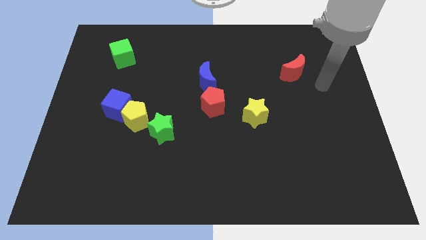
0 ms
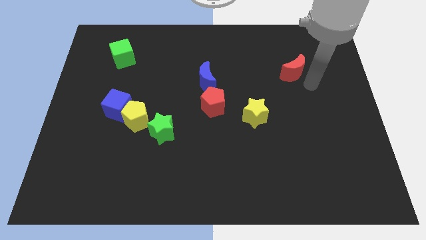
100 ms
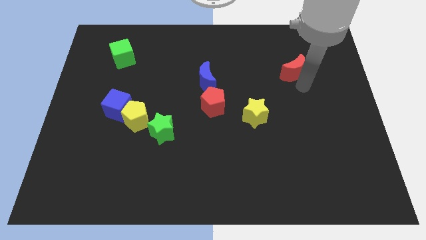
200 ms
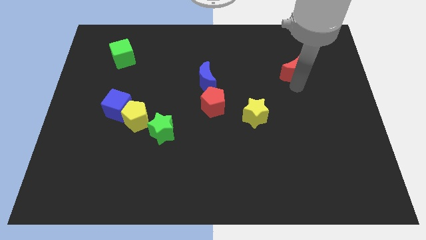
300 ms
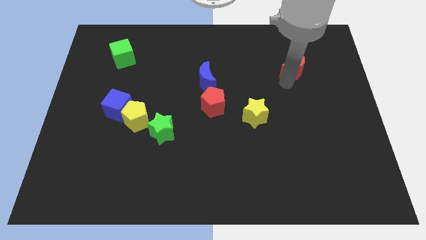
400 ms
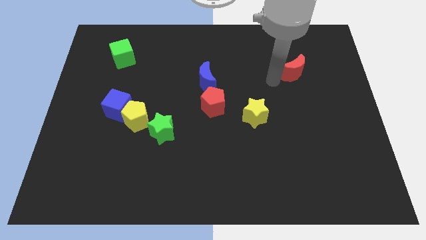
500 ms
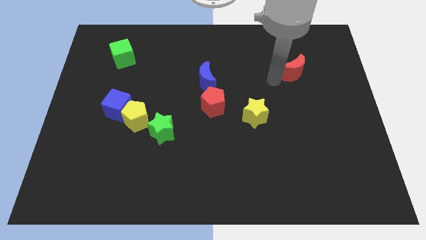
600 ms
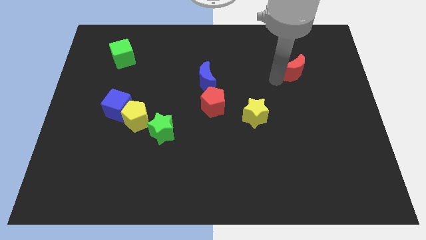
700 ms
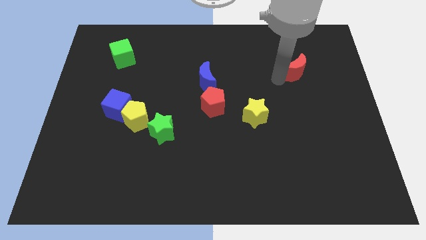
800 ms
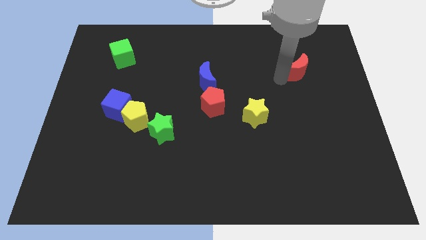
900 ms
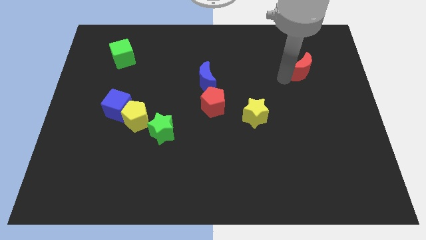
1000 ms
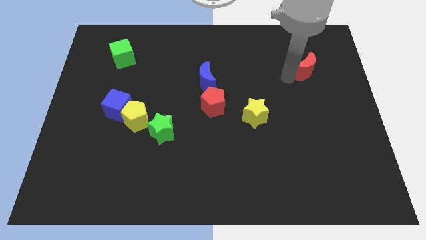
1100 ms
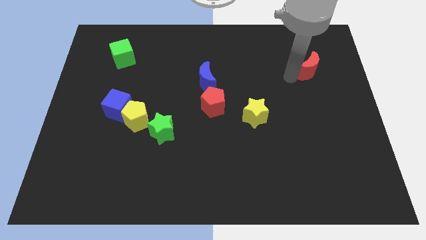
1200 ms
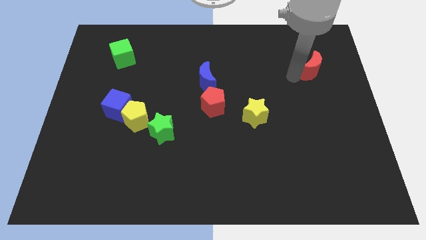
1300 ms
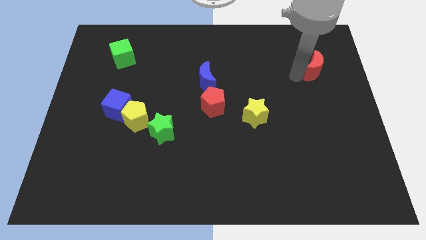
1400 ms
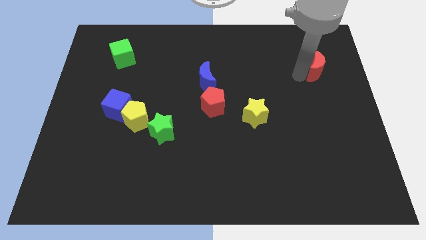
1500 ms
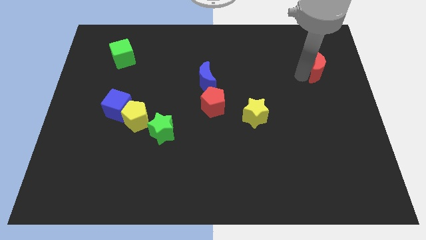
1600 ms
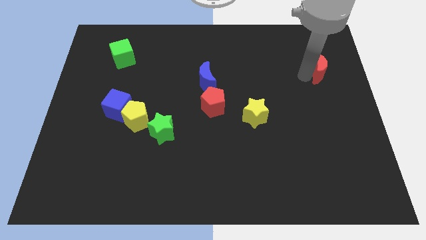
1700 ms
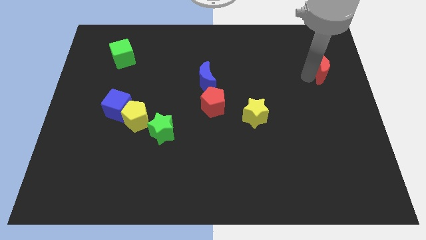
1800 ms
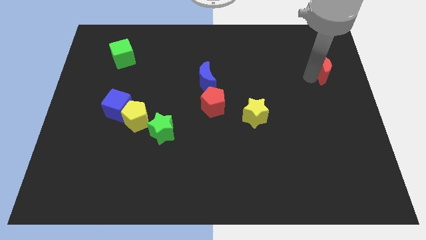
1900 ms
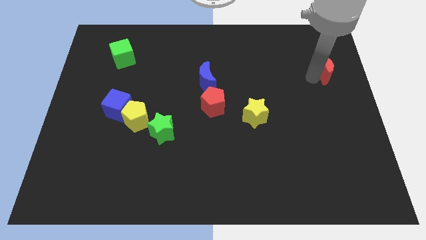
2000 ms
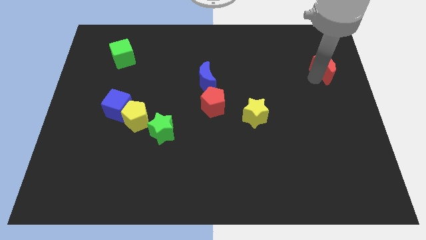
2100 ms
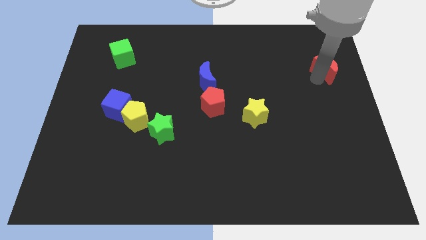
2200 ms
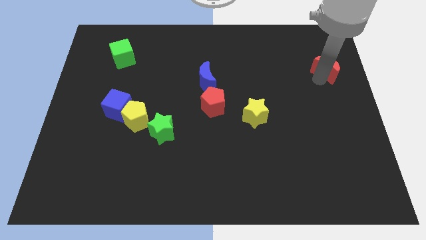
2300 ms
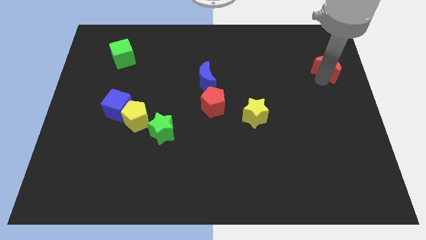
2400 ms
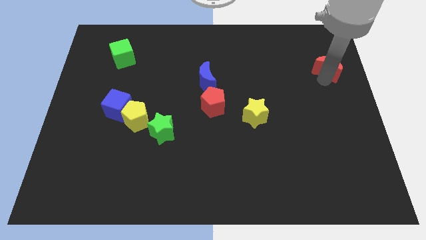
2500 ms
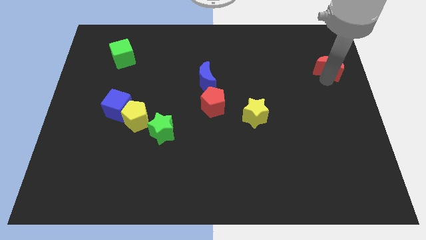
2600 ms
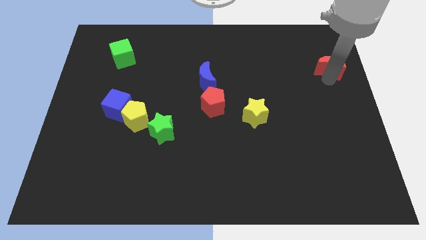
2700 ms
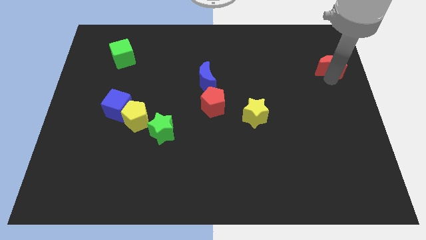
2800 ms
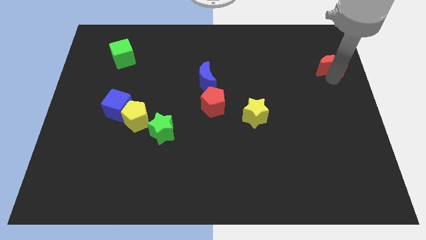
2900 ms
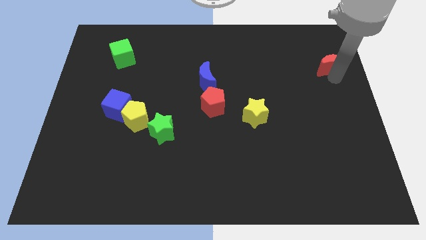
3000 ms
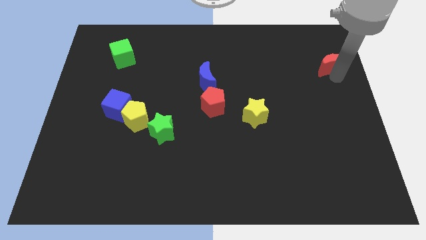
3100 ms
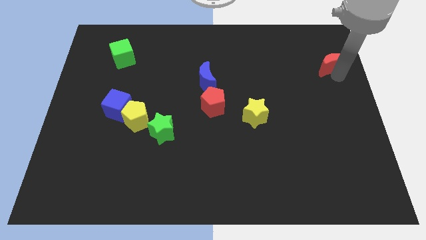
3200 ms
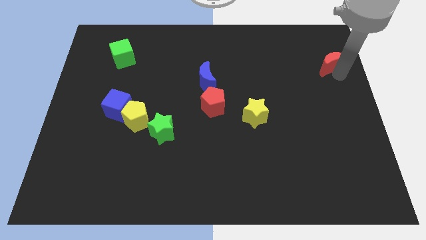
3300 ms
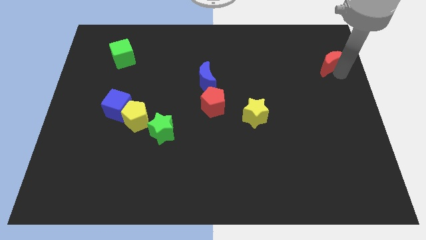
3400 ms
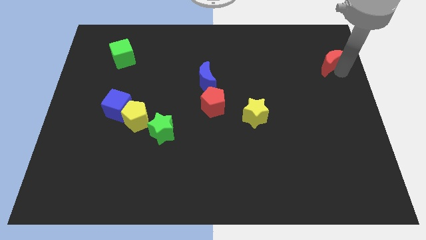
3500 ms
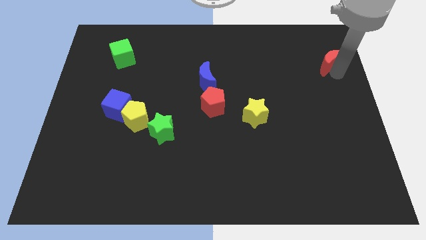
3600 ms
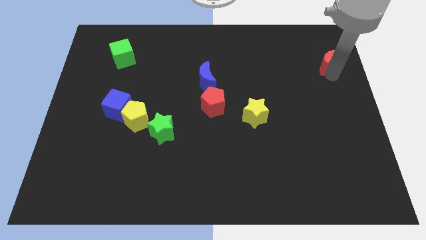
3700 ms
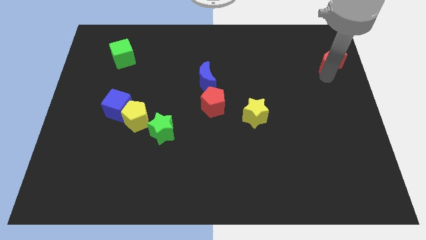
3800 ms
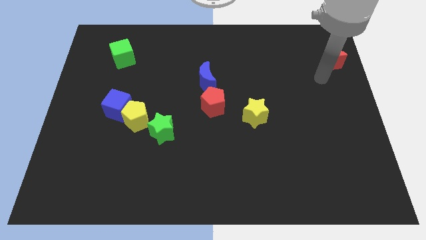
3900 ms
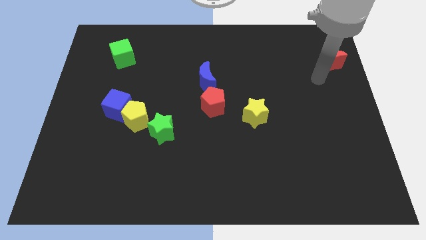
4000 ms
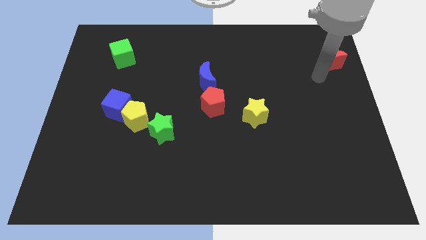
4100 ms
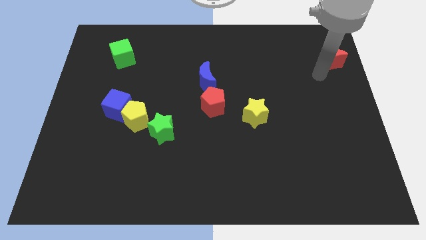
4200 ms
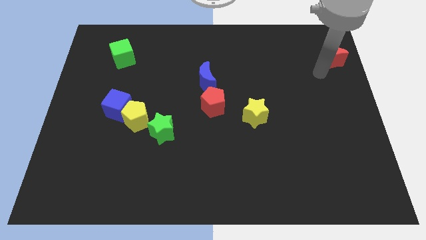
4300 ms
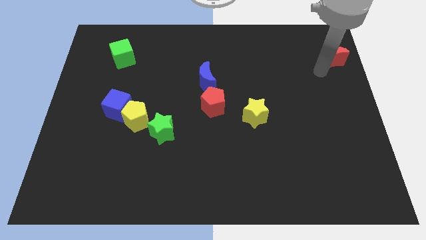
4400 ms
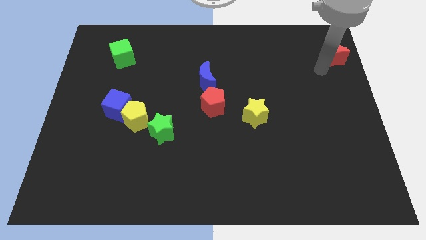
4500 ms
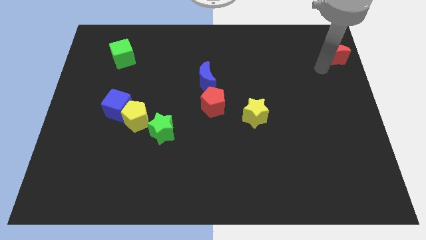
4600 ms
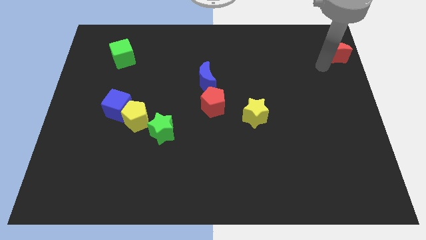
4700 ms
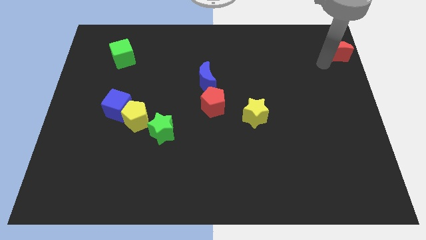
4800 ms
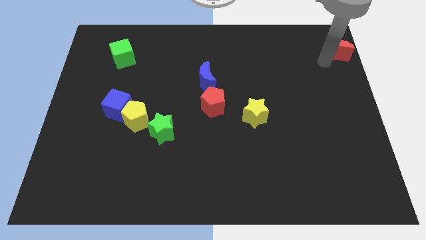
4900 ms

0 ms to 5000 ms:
push the red moon to the top right corner

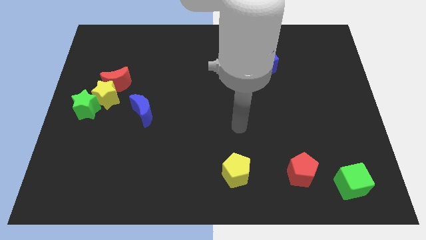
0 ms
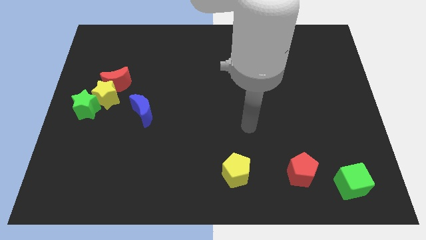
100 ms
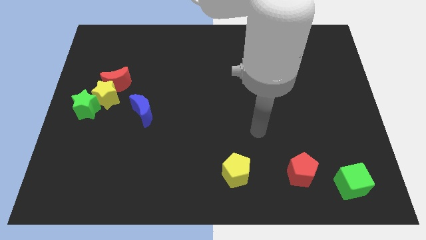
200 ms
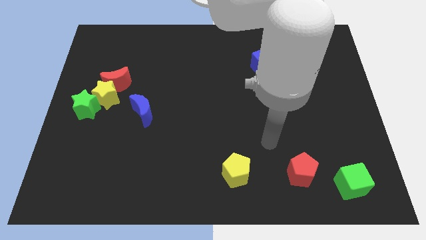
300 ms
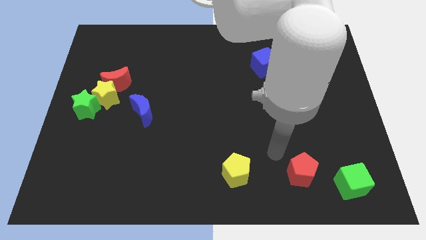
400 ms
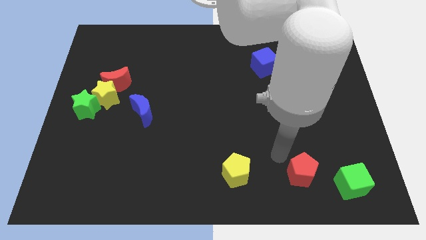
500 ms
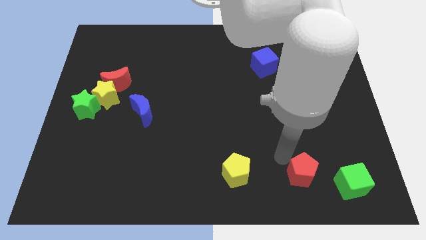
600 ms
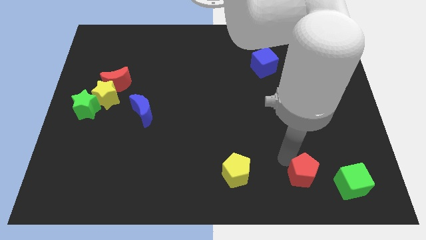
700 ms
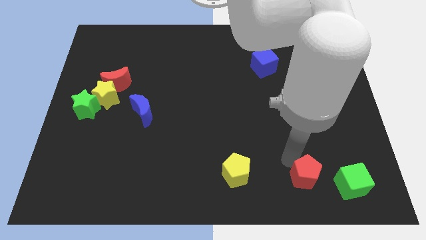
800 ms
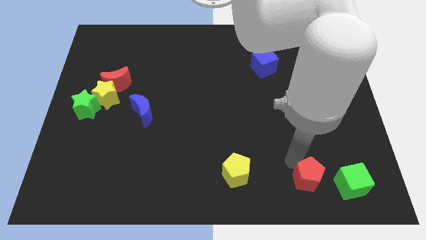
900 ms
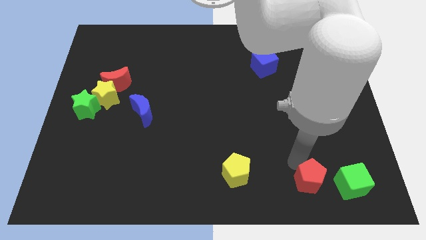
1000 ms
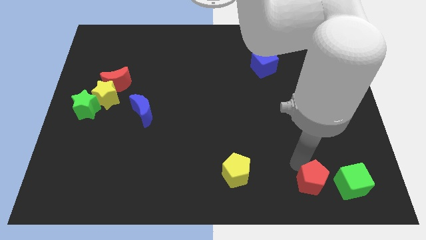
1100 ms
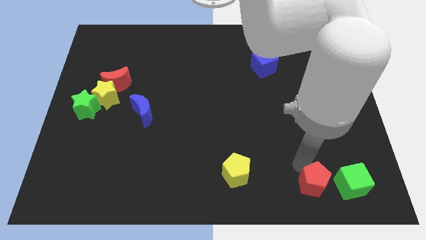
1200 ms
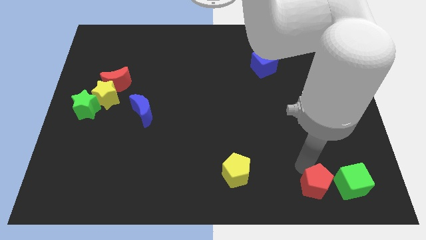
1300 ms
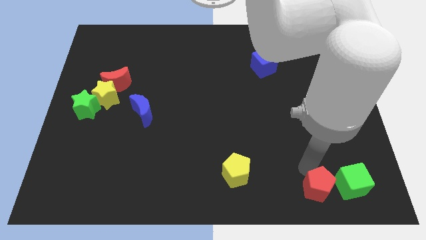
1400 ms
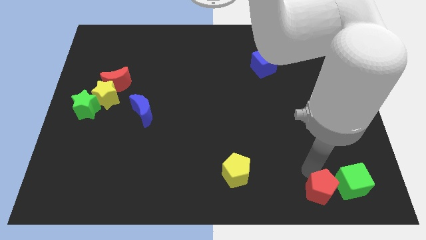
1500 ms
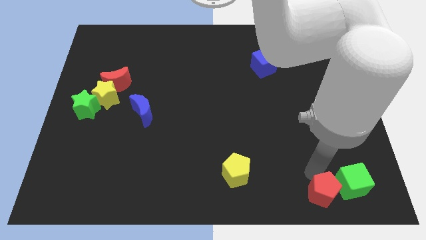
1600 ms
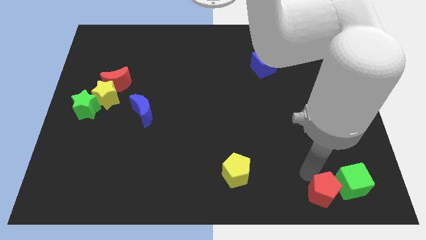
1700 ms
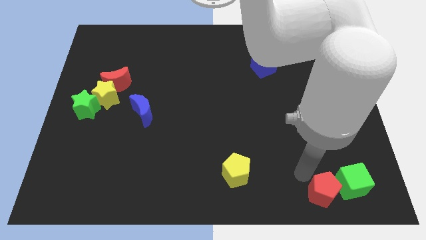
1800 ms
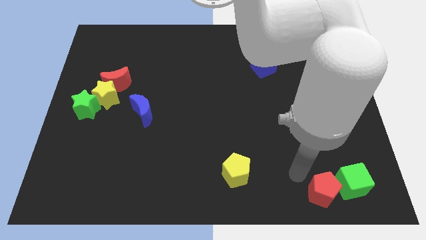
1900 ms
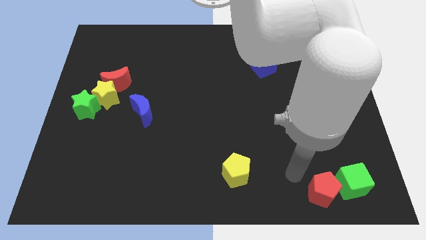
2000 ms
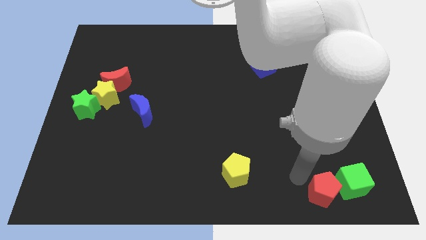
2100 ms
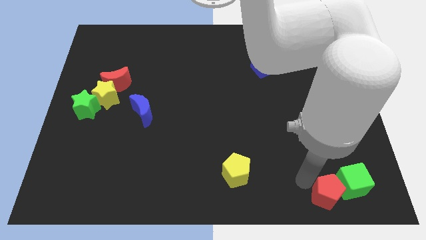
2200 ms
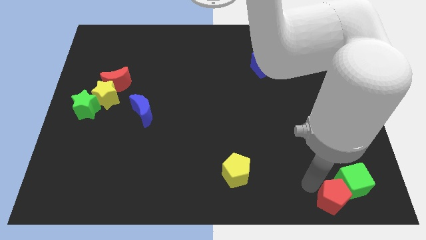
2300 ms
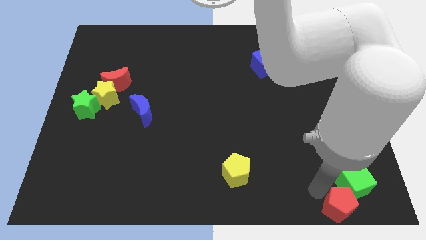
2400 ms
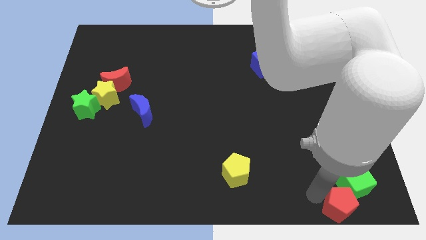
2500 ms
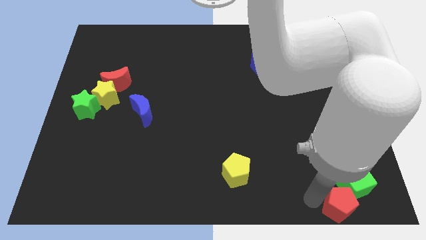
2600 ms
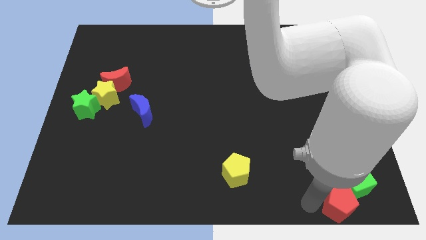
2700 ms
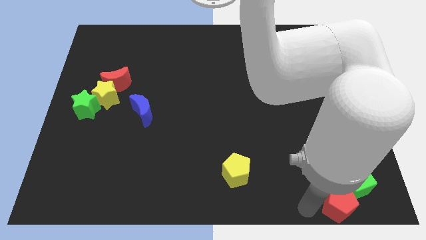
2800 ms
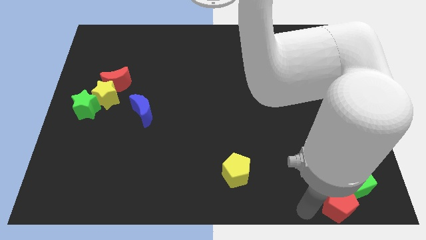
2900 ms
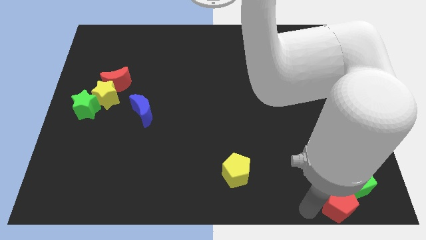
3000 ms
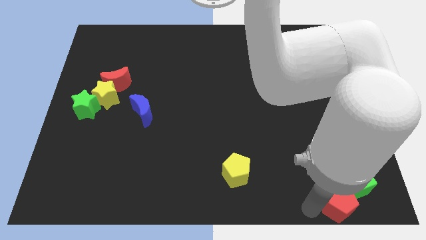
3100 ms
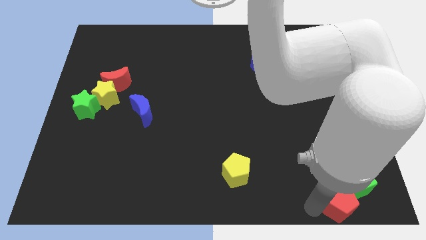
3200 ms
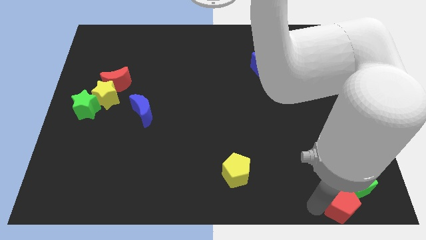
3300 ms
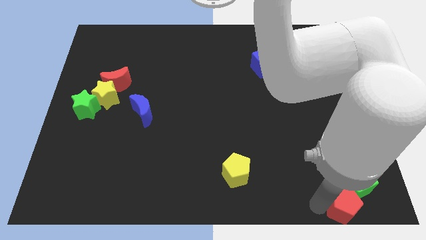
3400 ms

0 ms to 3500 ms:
push the red pentagon to the bottom right
